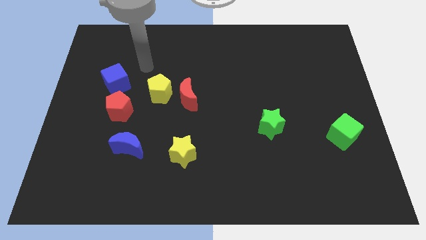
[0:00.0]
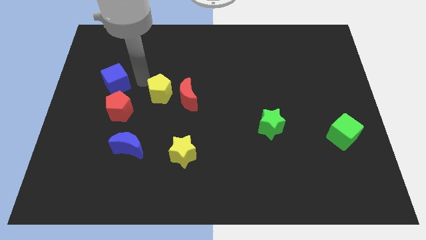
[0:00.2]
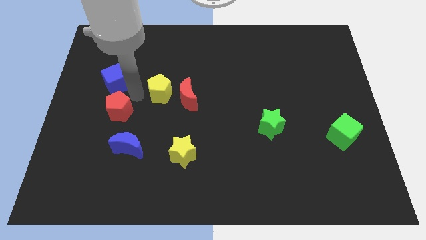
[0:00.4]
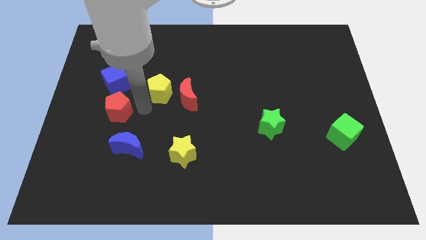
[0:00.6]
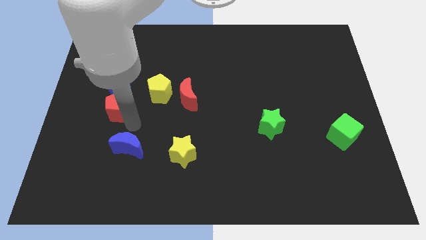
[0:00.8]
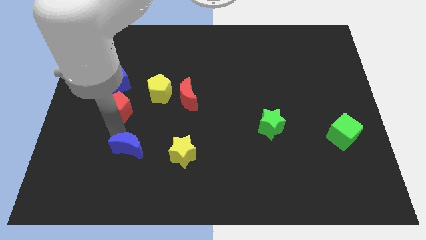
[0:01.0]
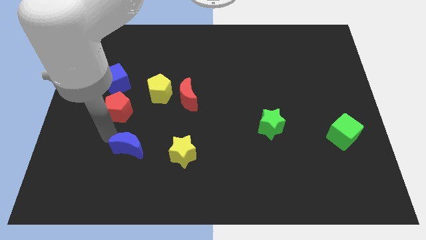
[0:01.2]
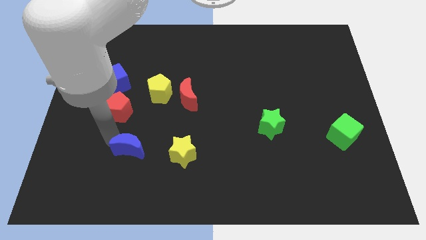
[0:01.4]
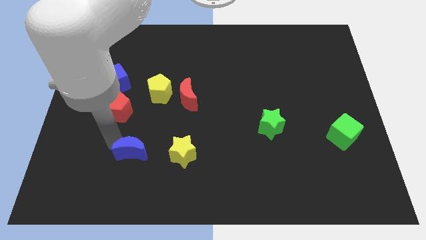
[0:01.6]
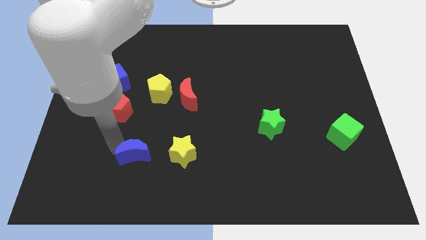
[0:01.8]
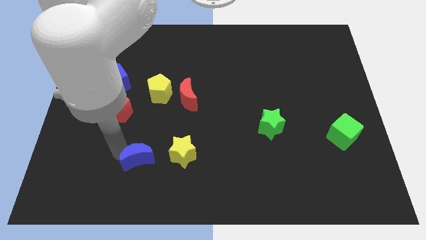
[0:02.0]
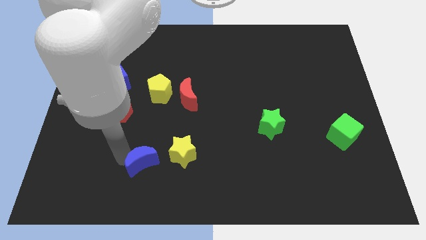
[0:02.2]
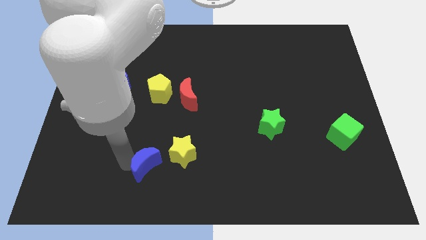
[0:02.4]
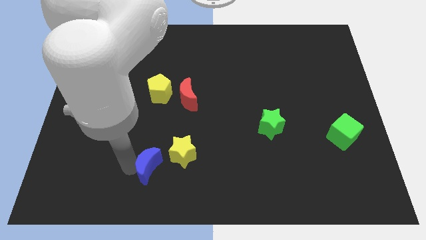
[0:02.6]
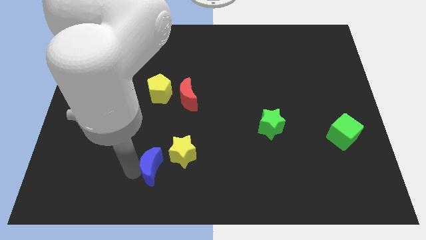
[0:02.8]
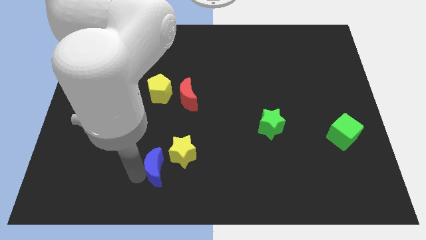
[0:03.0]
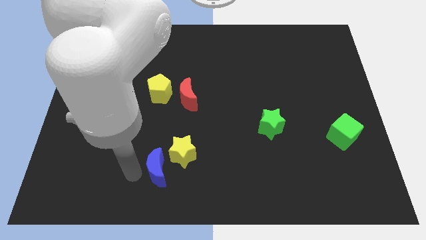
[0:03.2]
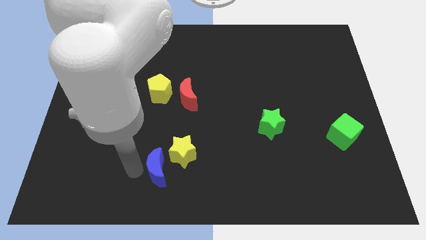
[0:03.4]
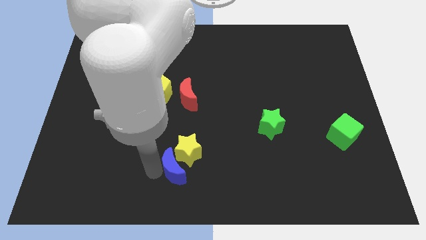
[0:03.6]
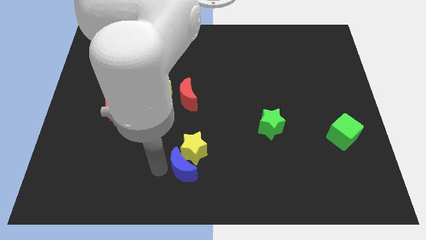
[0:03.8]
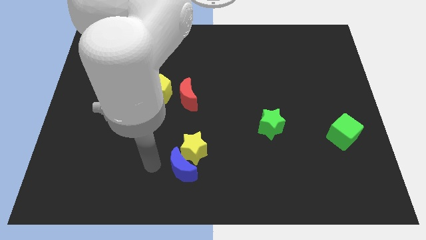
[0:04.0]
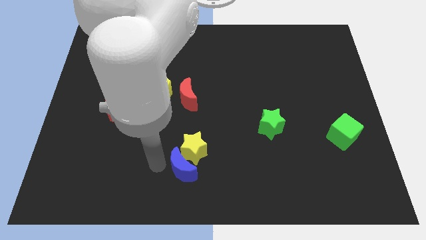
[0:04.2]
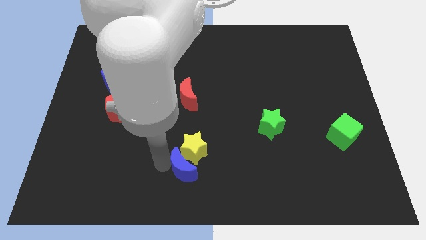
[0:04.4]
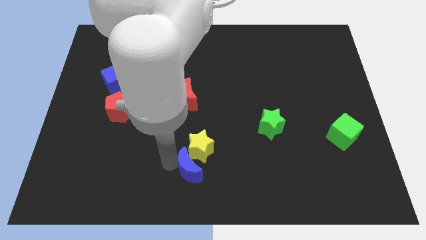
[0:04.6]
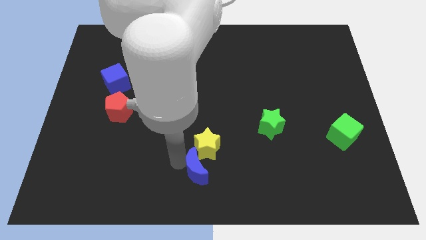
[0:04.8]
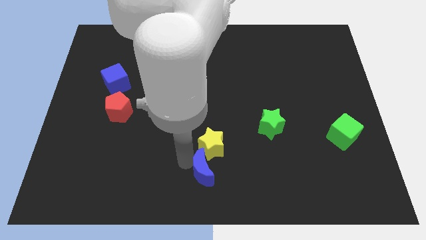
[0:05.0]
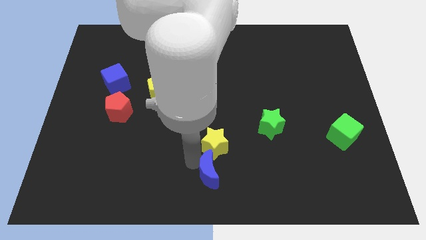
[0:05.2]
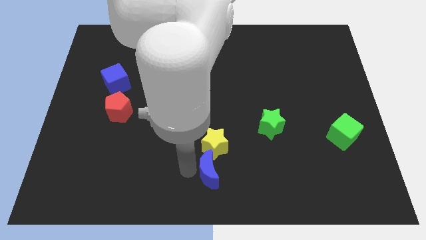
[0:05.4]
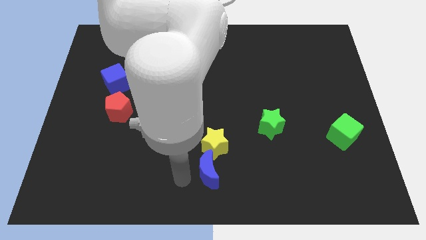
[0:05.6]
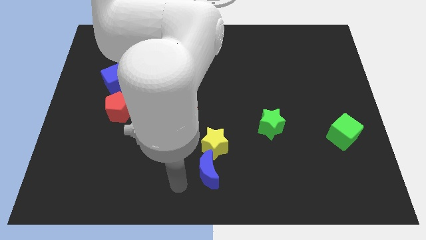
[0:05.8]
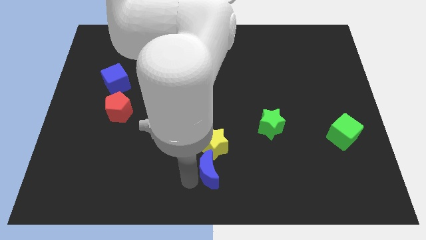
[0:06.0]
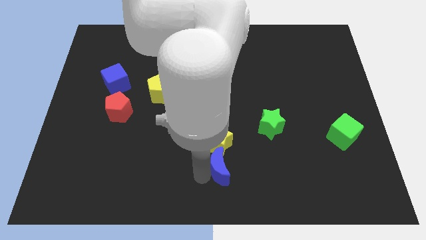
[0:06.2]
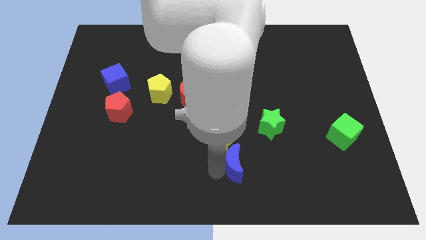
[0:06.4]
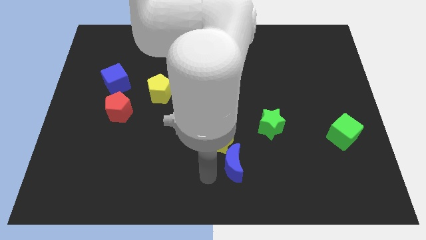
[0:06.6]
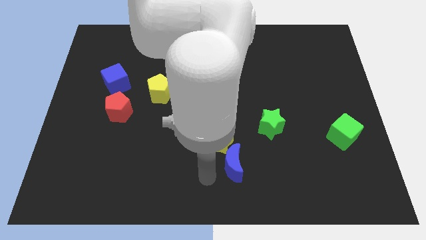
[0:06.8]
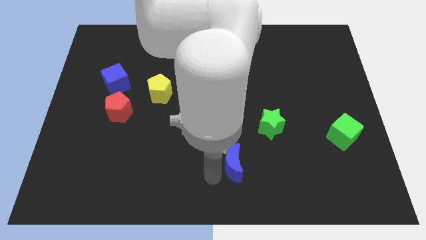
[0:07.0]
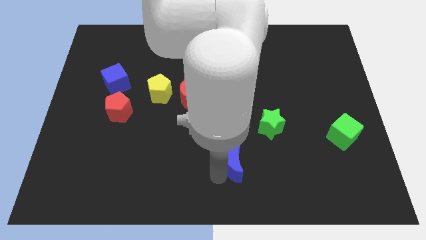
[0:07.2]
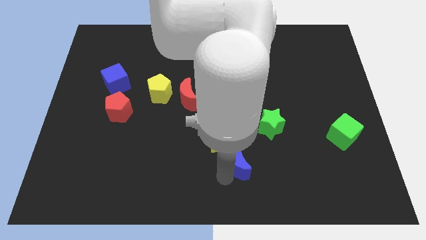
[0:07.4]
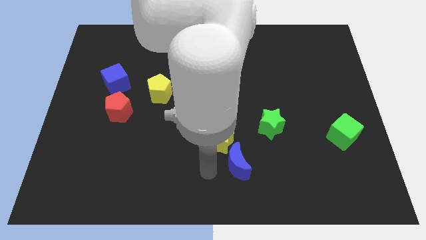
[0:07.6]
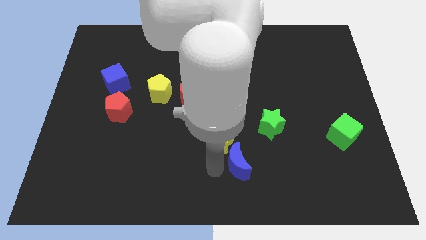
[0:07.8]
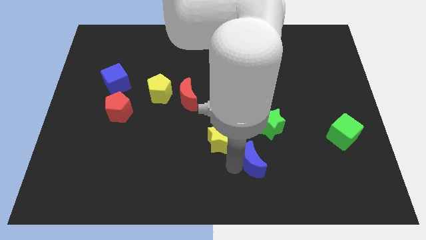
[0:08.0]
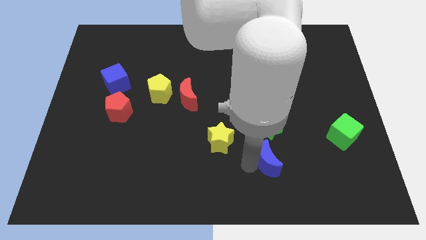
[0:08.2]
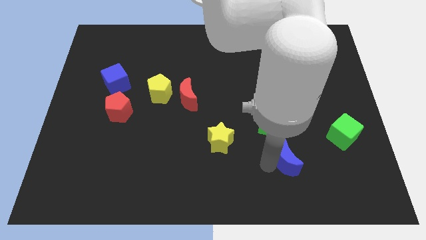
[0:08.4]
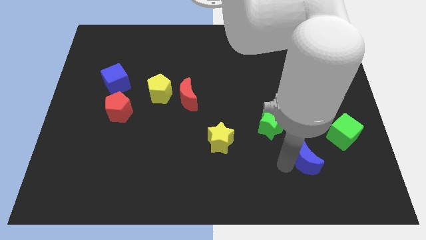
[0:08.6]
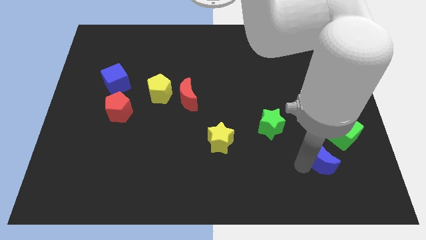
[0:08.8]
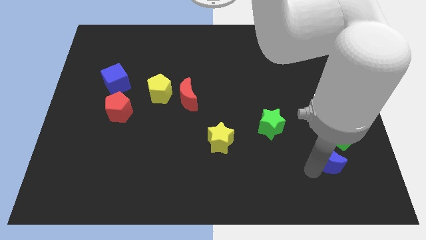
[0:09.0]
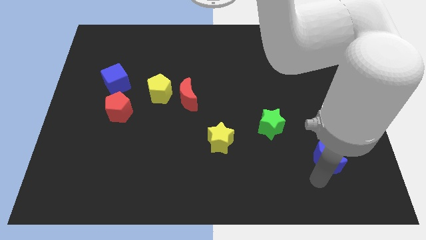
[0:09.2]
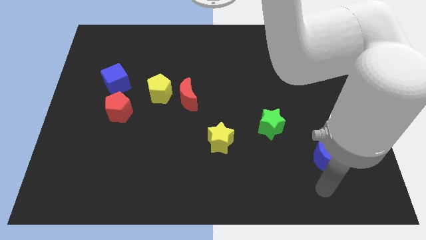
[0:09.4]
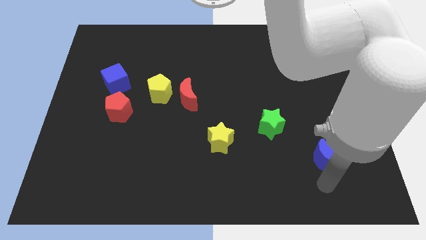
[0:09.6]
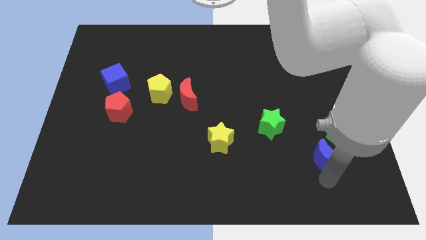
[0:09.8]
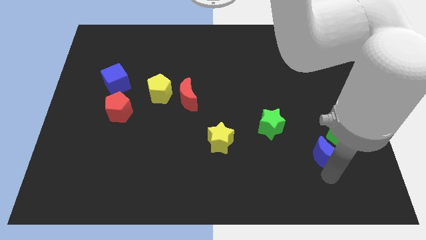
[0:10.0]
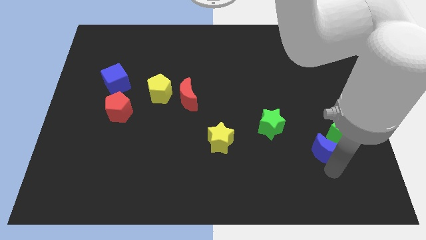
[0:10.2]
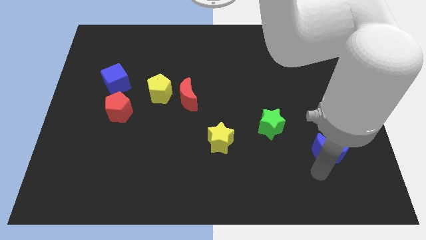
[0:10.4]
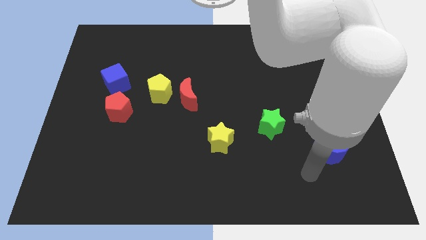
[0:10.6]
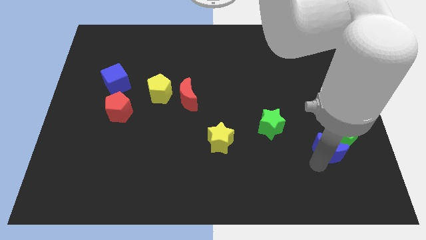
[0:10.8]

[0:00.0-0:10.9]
put the blue moon towards the green cube

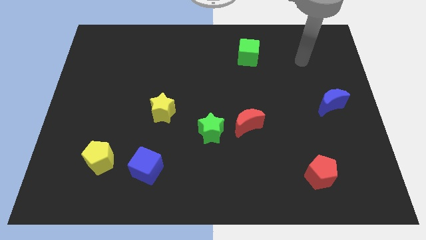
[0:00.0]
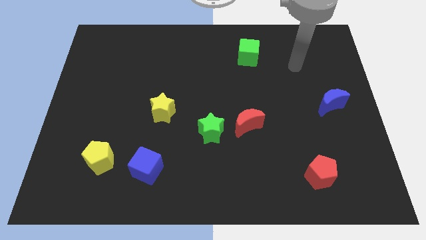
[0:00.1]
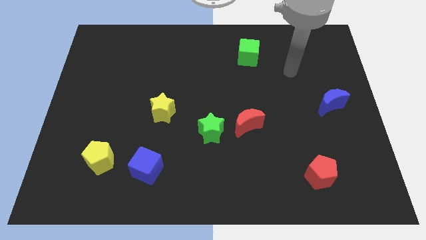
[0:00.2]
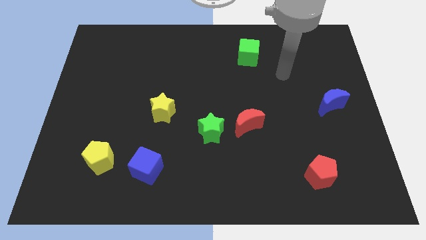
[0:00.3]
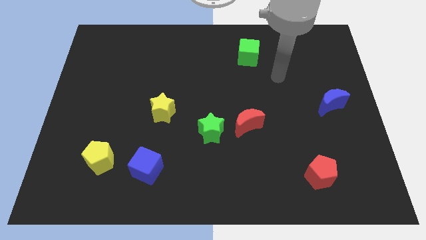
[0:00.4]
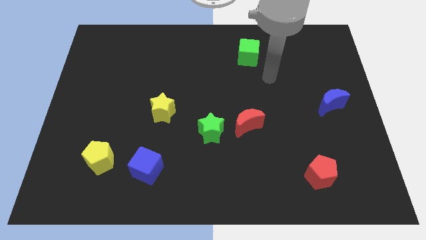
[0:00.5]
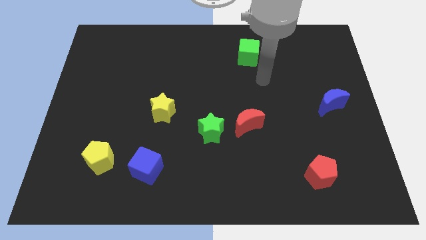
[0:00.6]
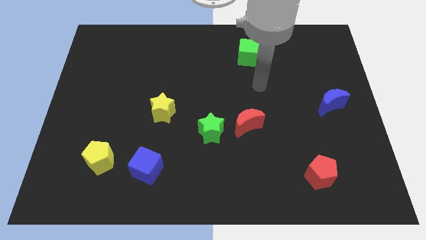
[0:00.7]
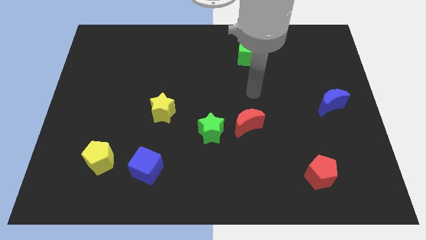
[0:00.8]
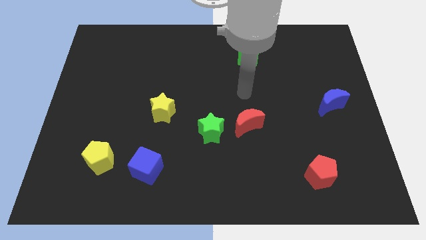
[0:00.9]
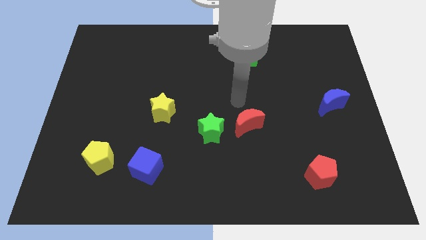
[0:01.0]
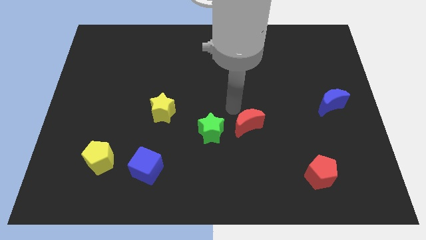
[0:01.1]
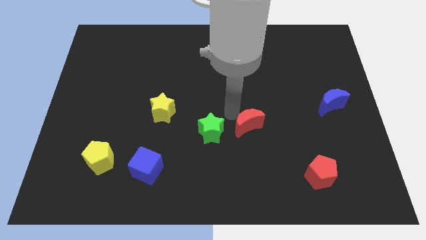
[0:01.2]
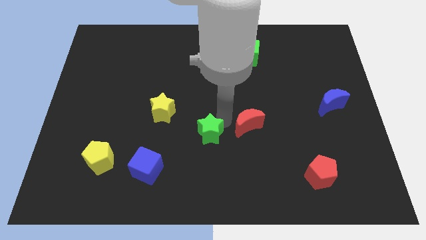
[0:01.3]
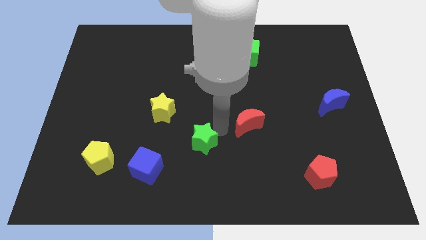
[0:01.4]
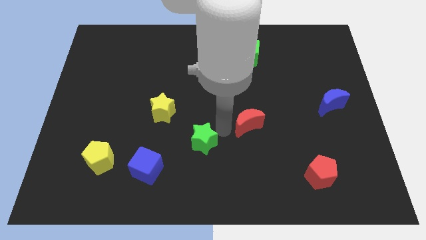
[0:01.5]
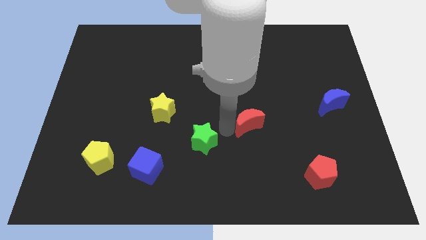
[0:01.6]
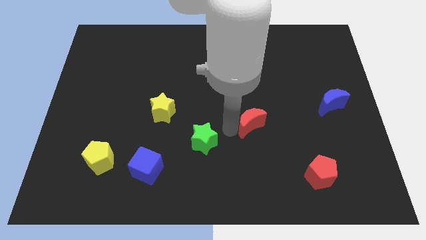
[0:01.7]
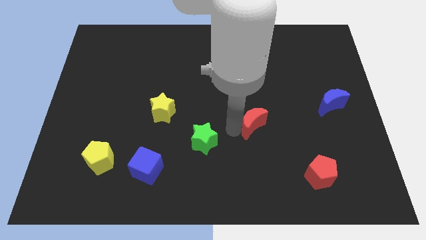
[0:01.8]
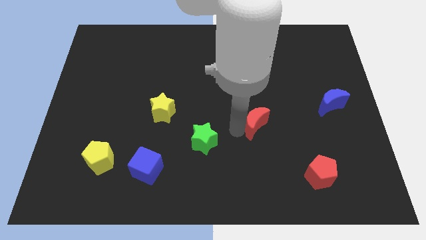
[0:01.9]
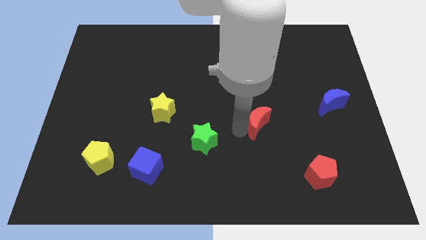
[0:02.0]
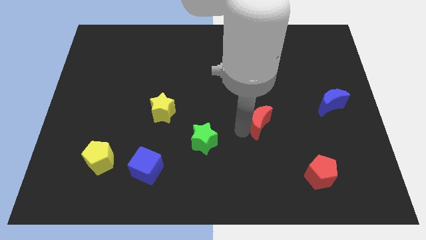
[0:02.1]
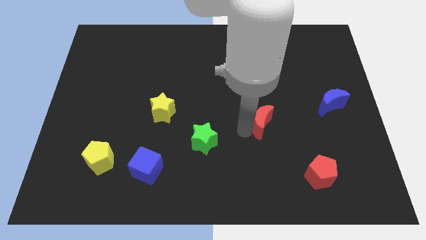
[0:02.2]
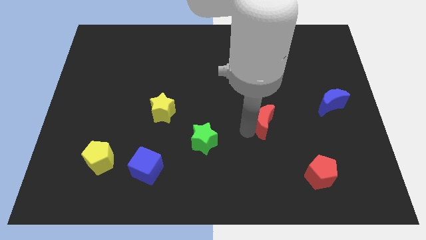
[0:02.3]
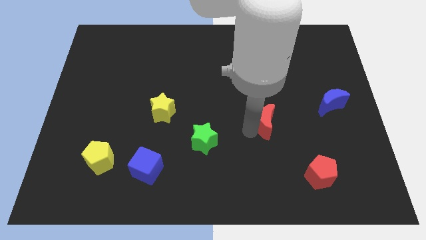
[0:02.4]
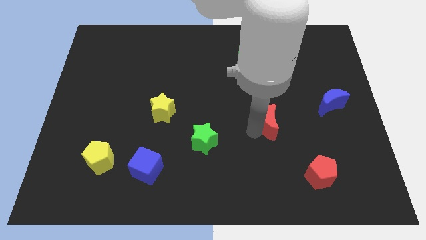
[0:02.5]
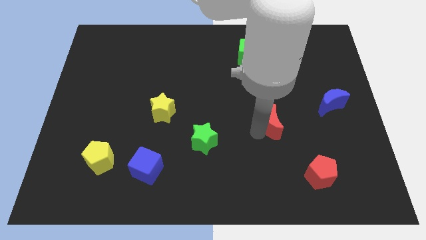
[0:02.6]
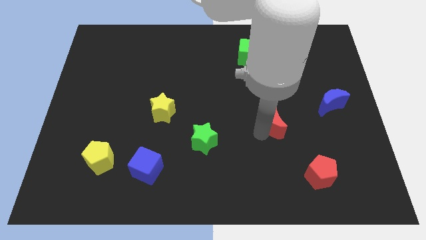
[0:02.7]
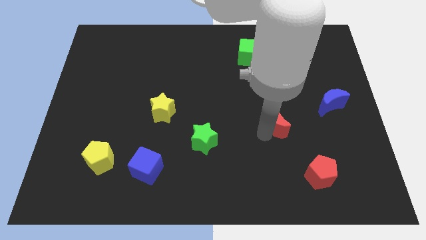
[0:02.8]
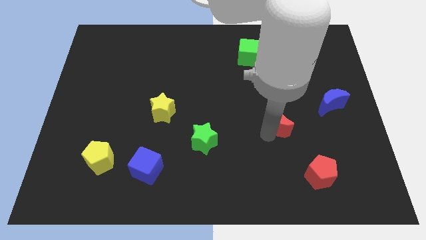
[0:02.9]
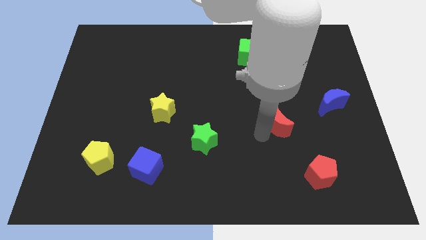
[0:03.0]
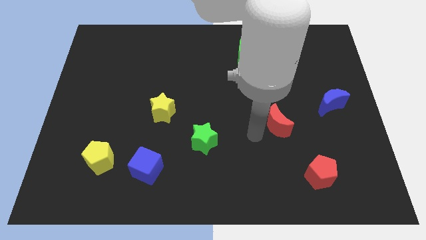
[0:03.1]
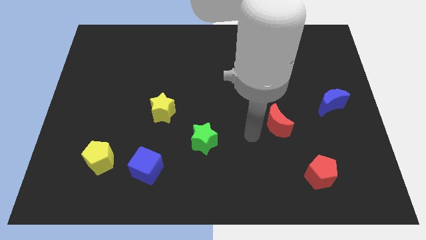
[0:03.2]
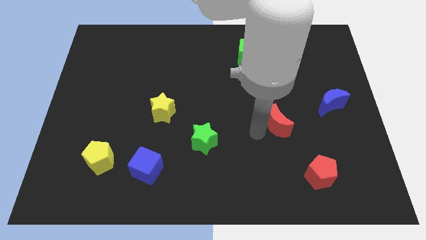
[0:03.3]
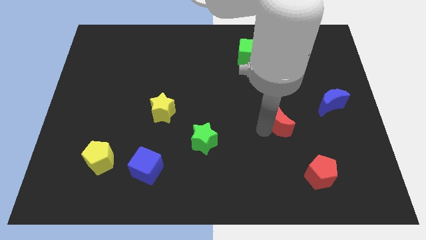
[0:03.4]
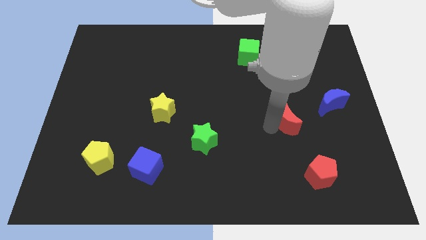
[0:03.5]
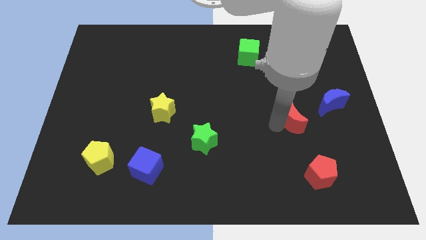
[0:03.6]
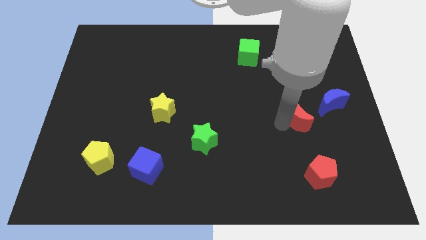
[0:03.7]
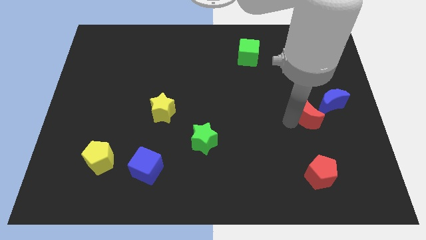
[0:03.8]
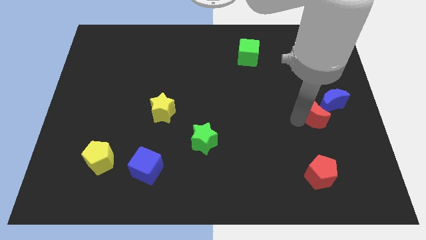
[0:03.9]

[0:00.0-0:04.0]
move the red moon close to the blue moon
